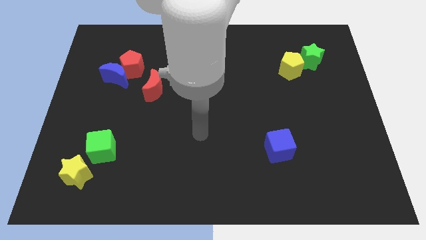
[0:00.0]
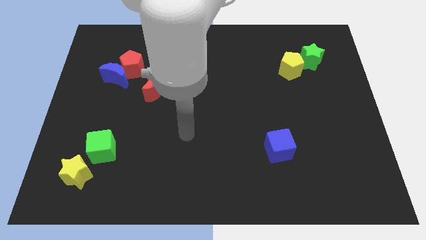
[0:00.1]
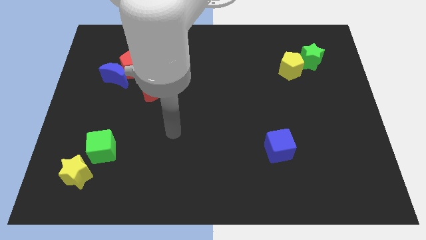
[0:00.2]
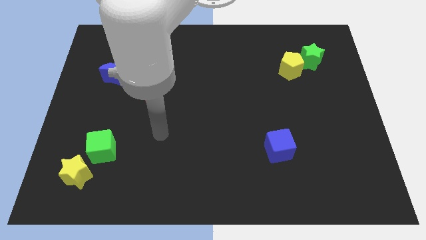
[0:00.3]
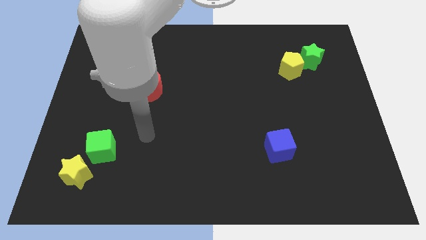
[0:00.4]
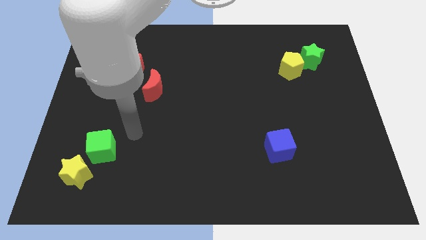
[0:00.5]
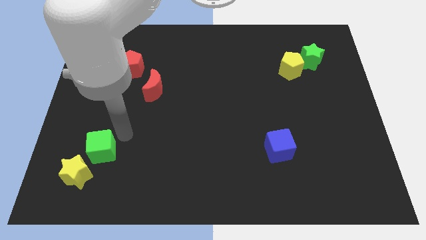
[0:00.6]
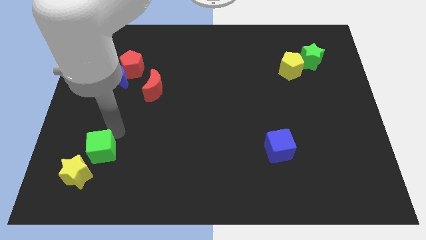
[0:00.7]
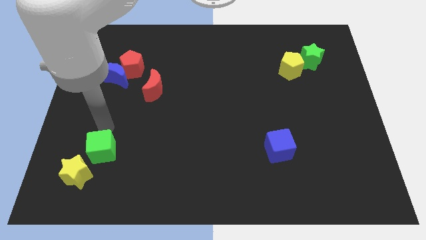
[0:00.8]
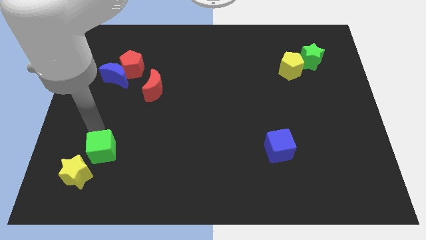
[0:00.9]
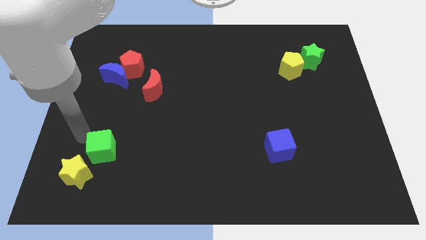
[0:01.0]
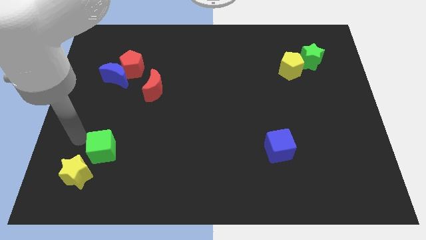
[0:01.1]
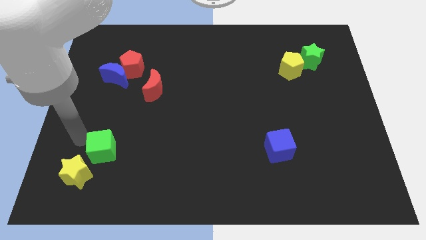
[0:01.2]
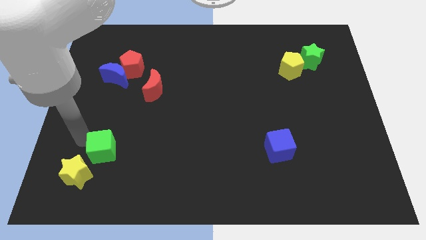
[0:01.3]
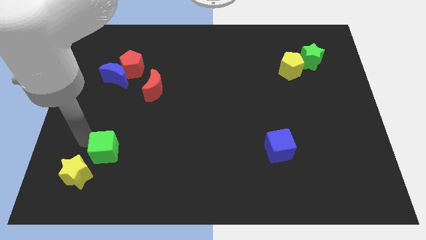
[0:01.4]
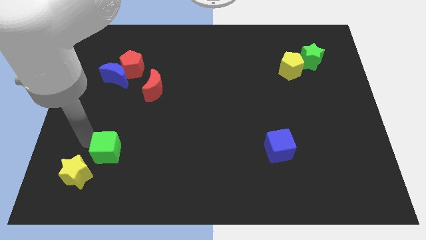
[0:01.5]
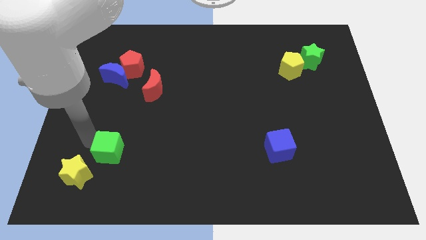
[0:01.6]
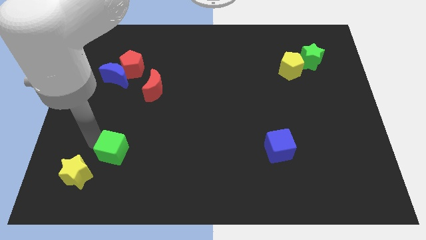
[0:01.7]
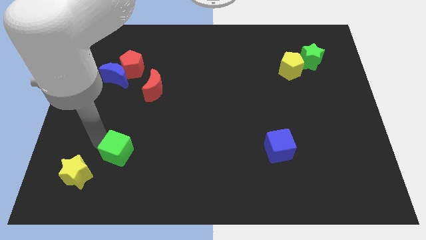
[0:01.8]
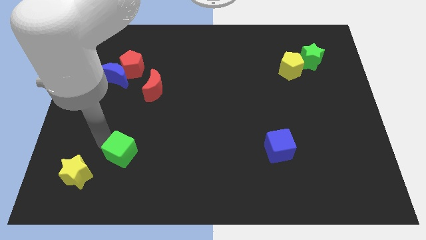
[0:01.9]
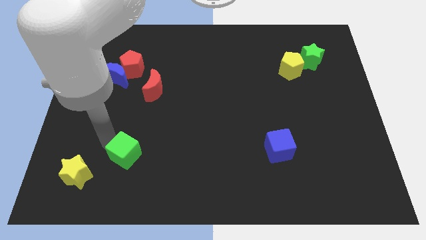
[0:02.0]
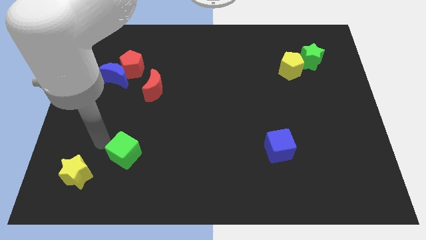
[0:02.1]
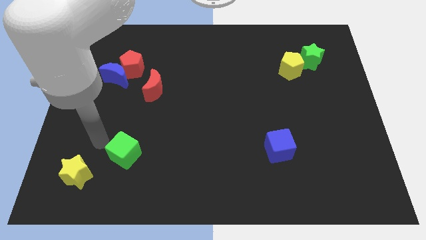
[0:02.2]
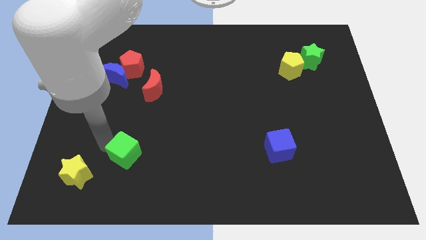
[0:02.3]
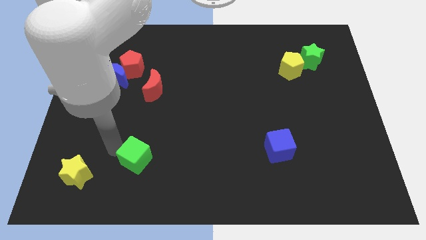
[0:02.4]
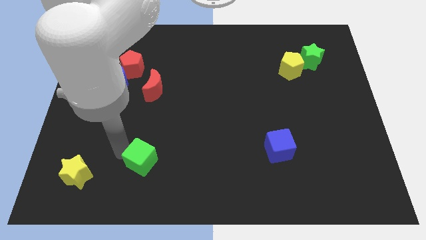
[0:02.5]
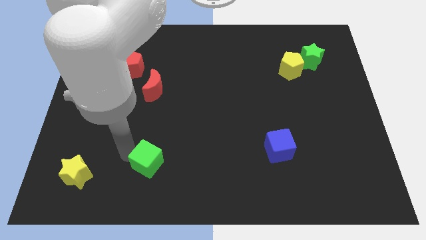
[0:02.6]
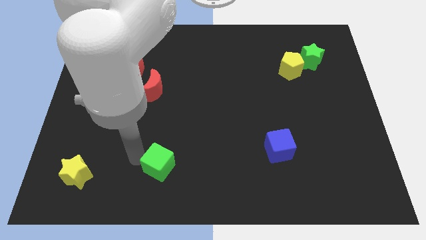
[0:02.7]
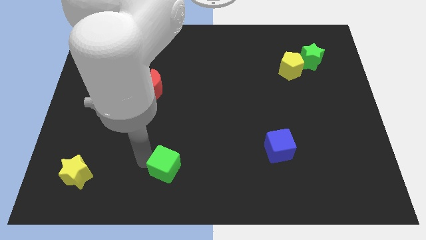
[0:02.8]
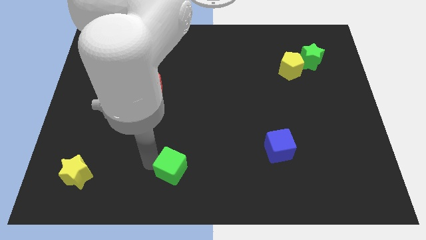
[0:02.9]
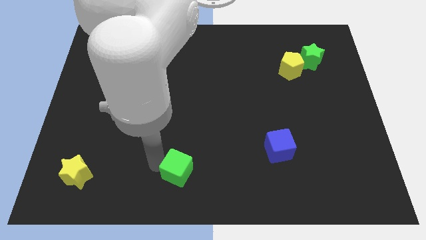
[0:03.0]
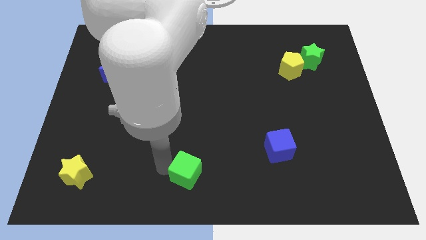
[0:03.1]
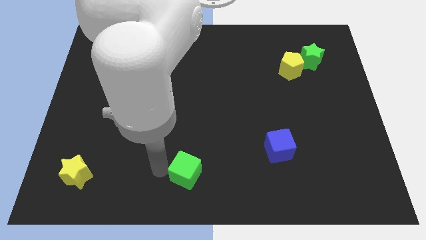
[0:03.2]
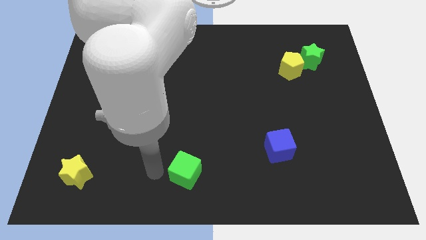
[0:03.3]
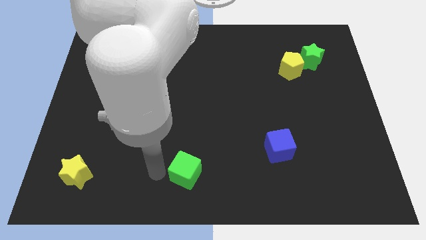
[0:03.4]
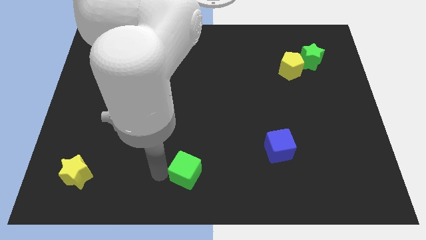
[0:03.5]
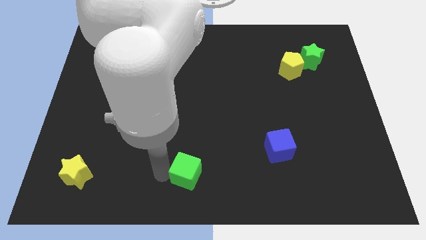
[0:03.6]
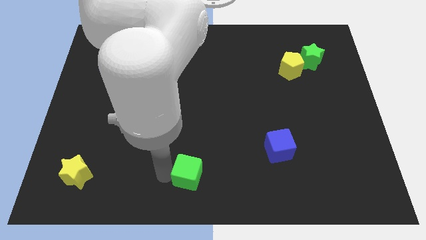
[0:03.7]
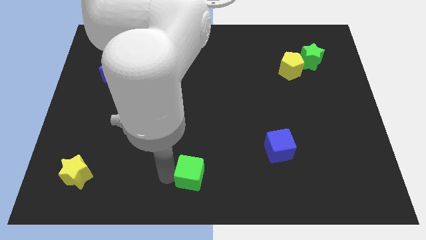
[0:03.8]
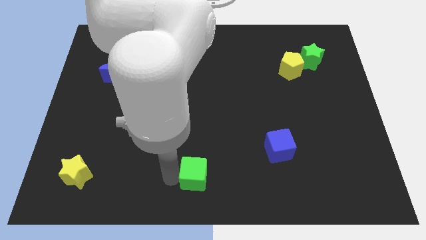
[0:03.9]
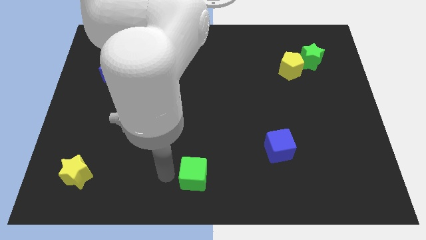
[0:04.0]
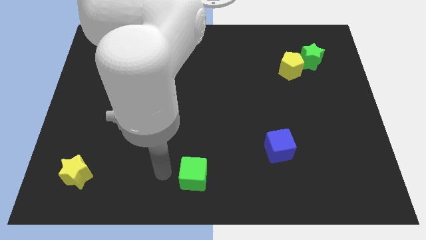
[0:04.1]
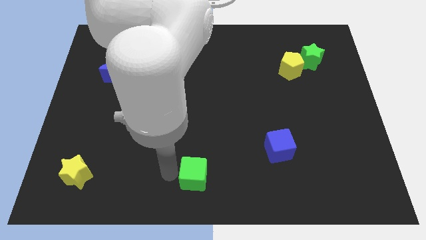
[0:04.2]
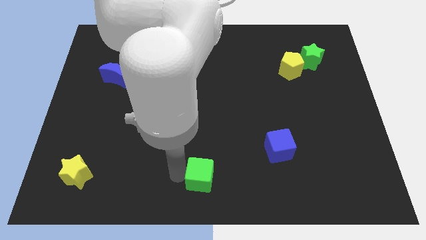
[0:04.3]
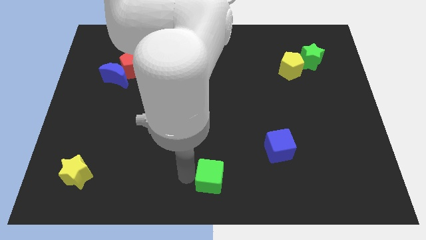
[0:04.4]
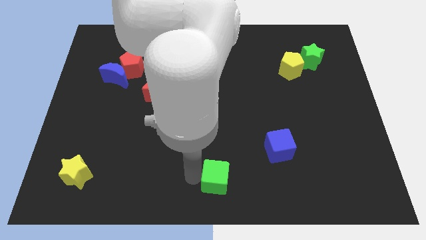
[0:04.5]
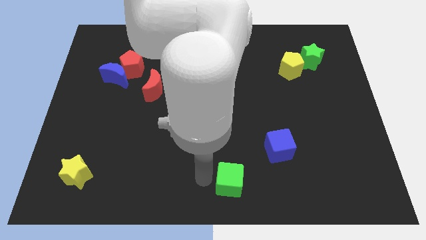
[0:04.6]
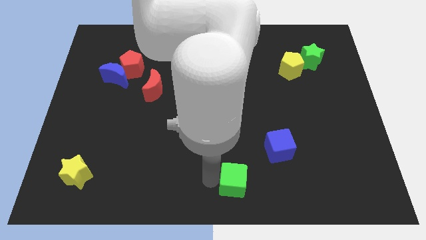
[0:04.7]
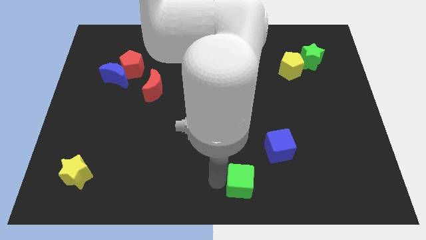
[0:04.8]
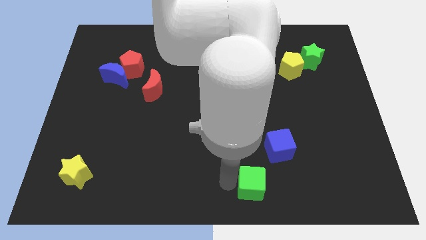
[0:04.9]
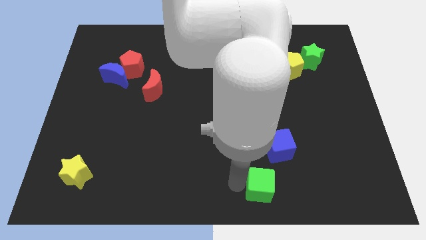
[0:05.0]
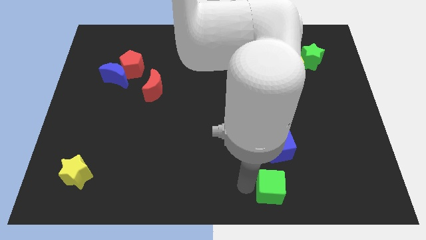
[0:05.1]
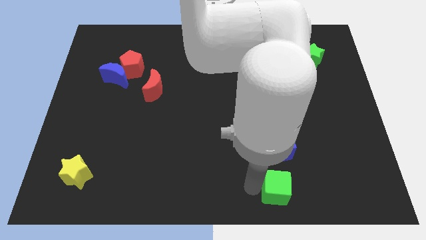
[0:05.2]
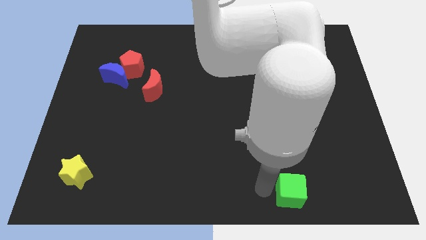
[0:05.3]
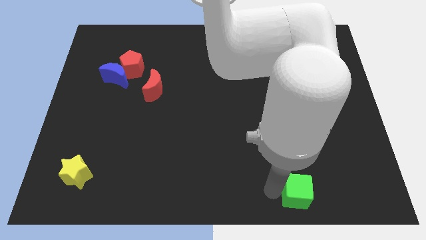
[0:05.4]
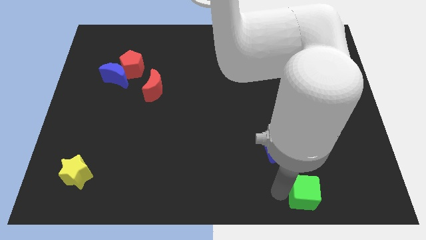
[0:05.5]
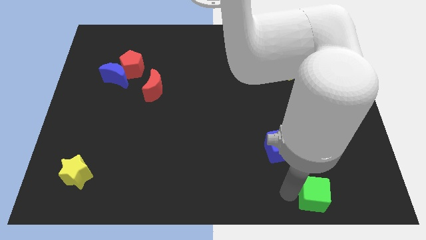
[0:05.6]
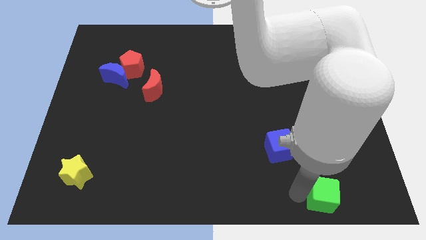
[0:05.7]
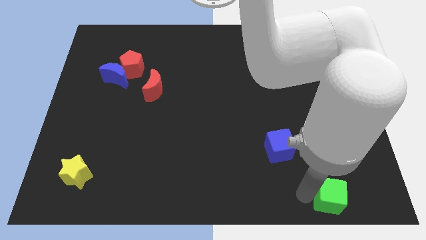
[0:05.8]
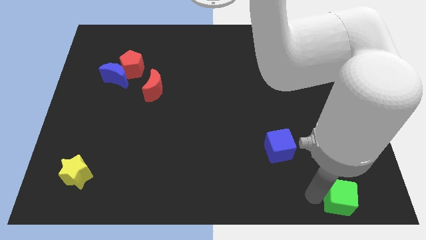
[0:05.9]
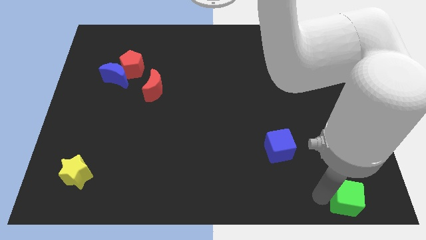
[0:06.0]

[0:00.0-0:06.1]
slide the green cube to the bottom right

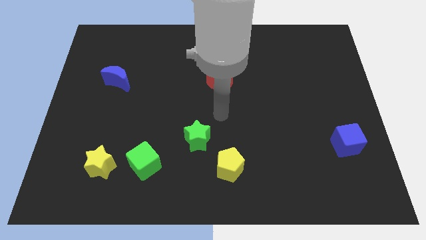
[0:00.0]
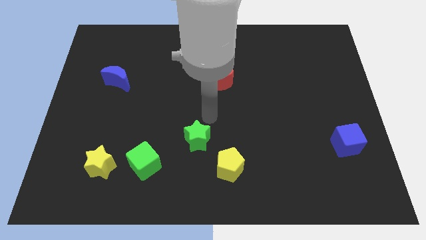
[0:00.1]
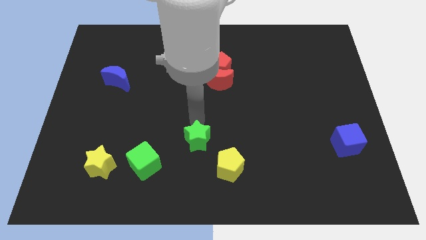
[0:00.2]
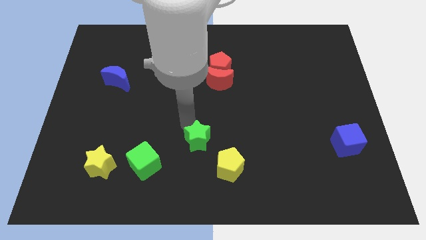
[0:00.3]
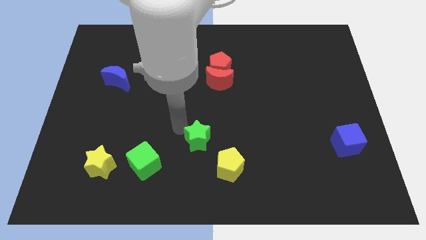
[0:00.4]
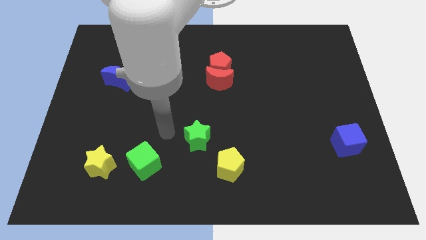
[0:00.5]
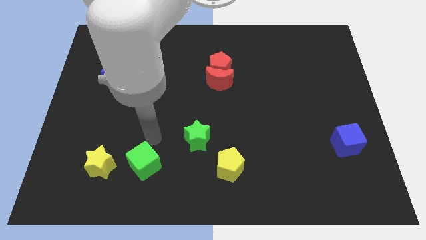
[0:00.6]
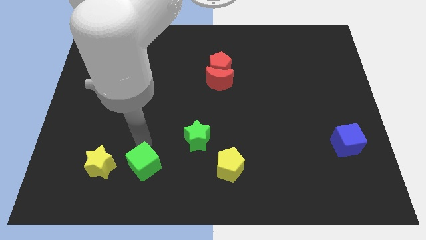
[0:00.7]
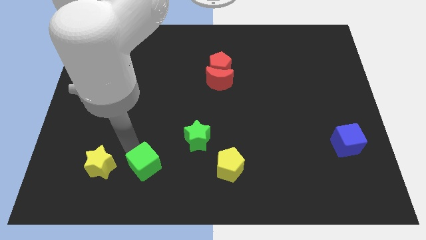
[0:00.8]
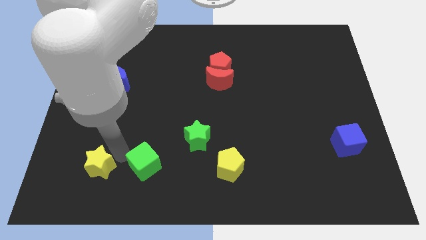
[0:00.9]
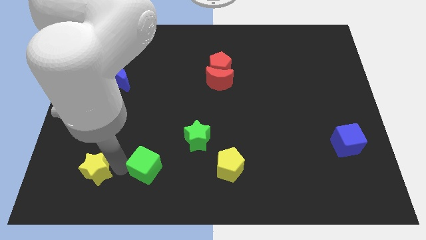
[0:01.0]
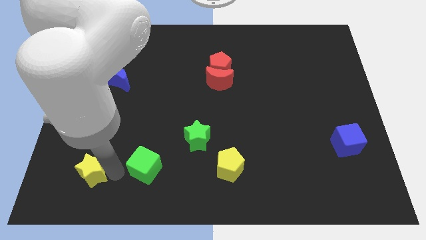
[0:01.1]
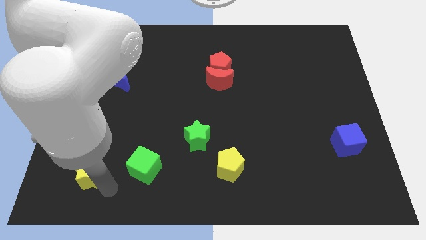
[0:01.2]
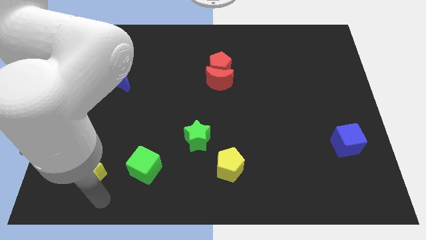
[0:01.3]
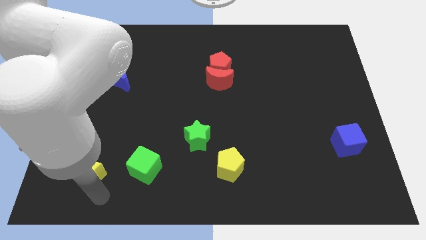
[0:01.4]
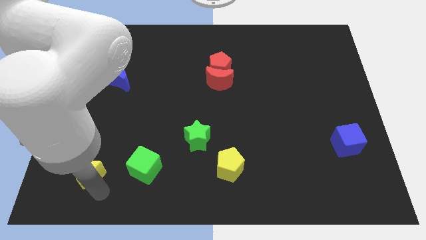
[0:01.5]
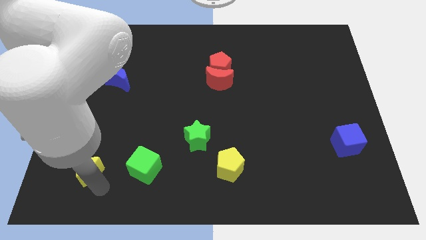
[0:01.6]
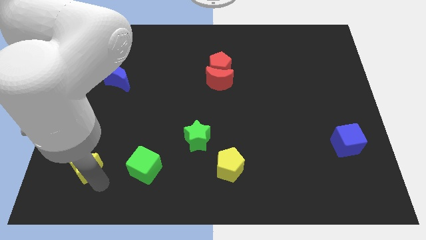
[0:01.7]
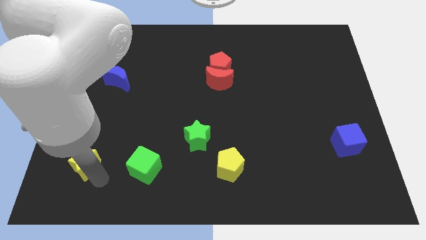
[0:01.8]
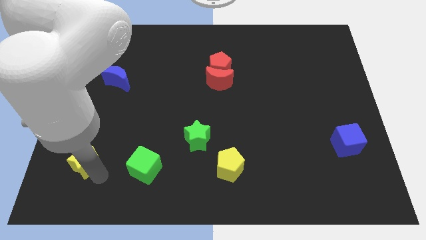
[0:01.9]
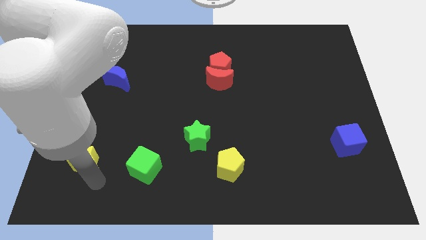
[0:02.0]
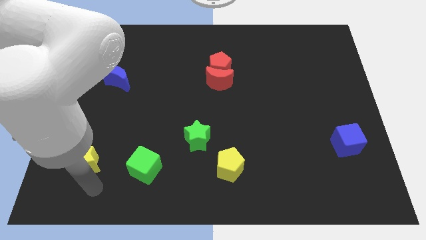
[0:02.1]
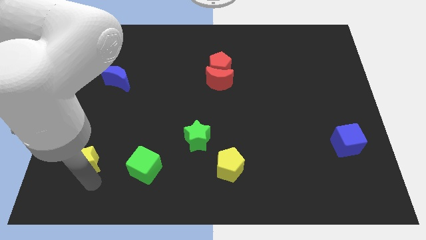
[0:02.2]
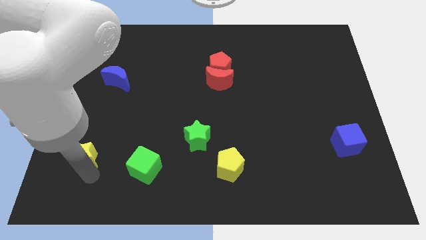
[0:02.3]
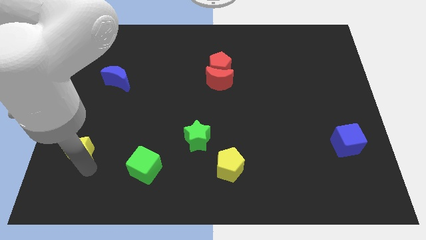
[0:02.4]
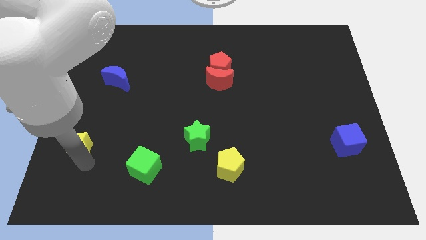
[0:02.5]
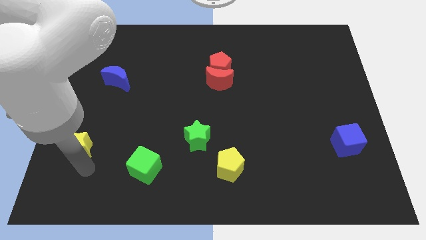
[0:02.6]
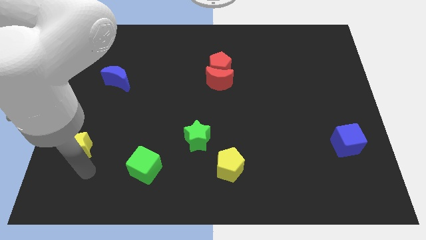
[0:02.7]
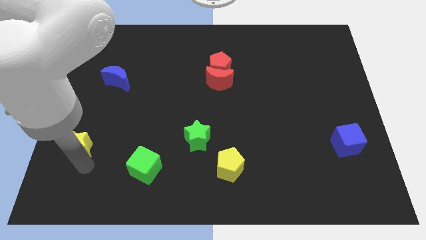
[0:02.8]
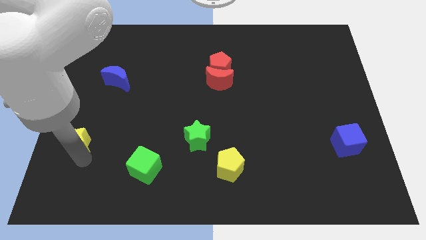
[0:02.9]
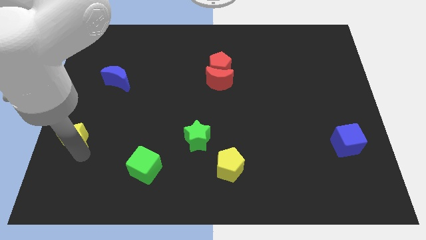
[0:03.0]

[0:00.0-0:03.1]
put the yellow star to the center left
